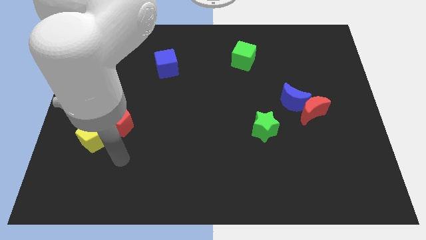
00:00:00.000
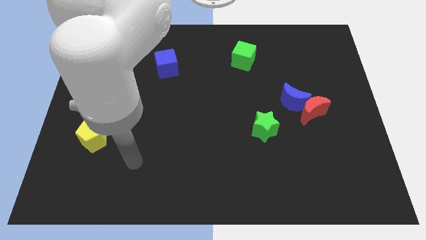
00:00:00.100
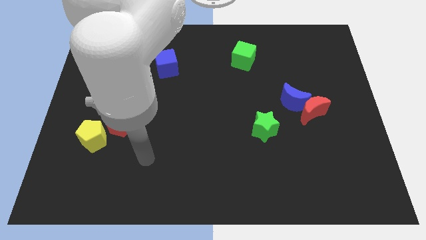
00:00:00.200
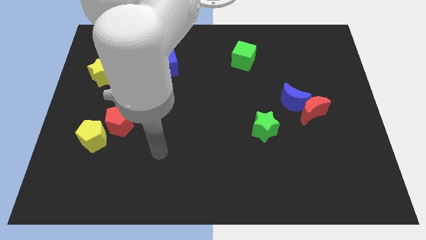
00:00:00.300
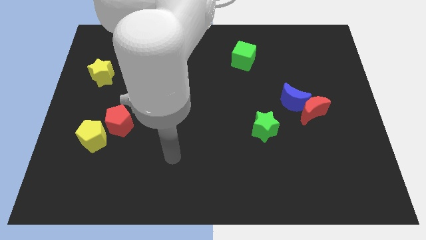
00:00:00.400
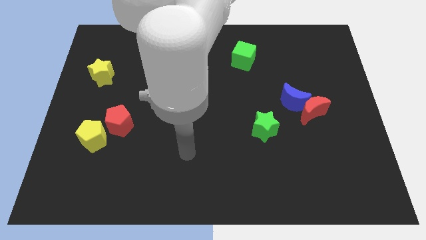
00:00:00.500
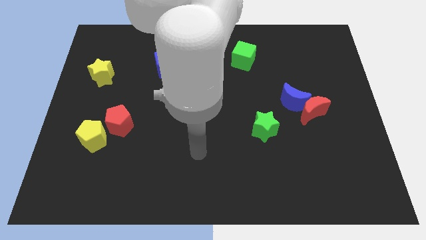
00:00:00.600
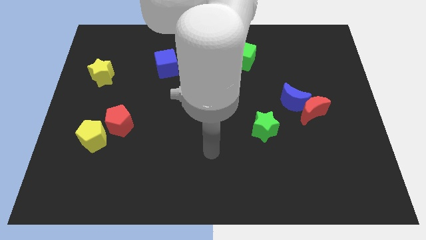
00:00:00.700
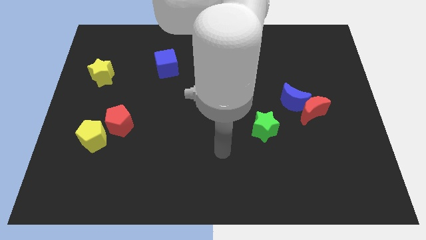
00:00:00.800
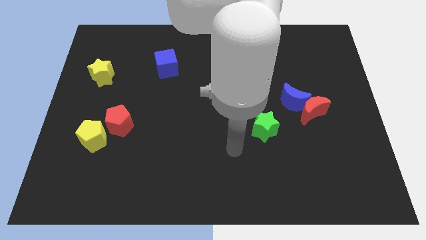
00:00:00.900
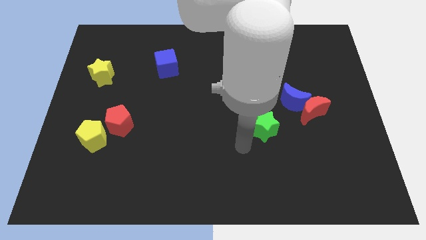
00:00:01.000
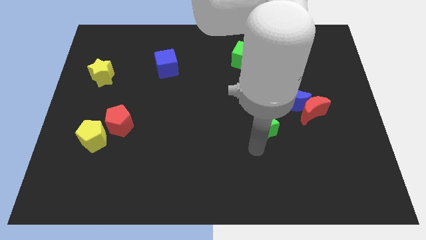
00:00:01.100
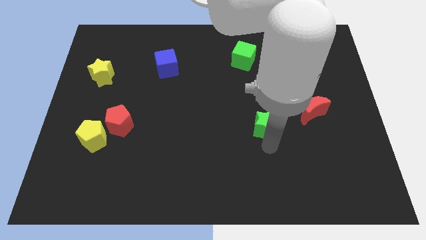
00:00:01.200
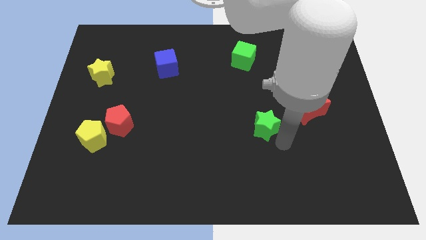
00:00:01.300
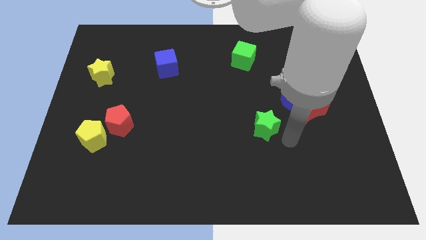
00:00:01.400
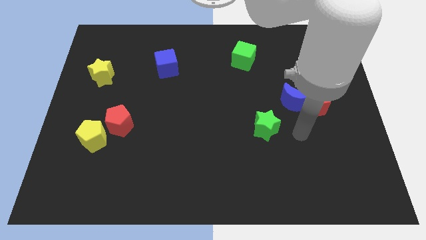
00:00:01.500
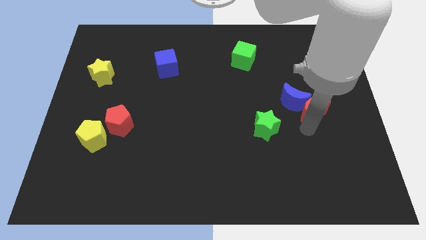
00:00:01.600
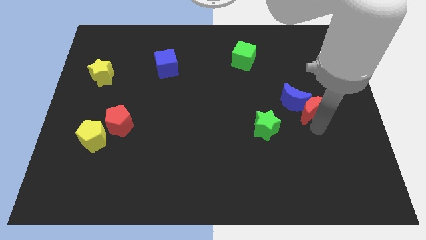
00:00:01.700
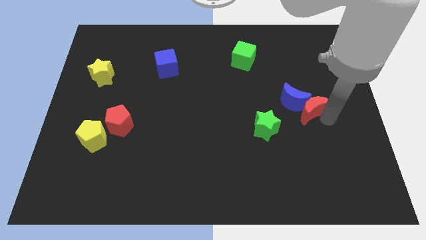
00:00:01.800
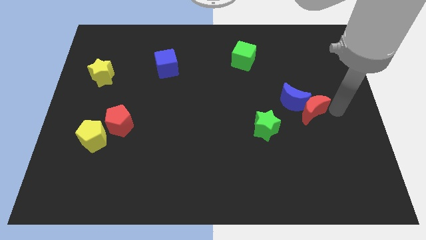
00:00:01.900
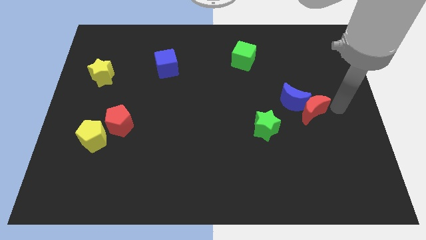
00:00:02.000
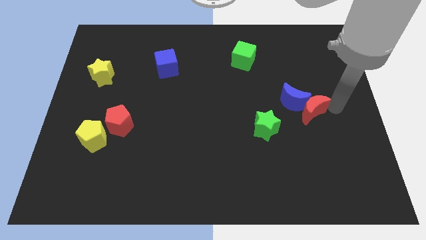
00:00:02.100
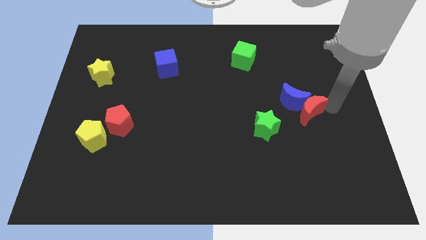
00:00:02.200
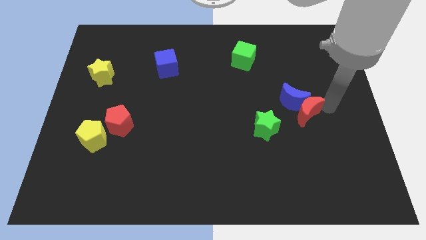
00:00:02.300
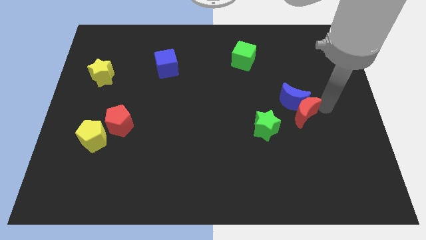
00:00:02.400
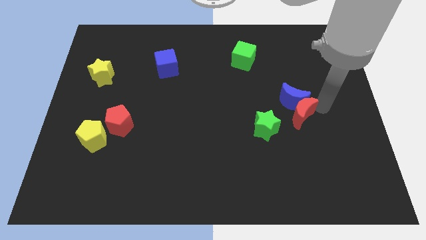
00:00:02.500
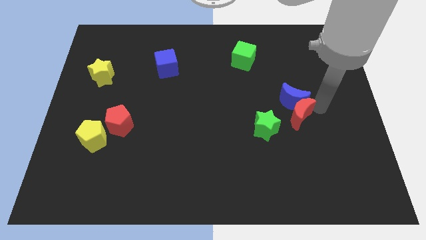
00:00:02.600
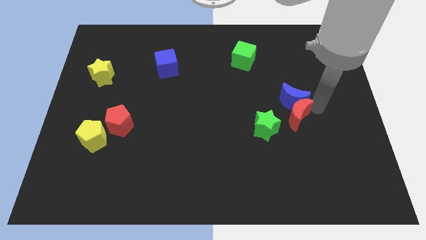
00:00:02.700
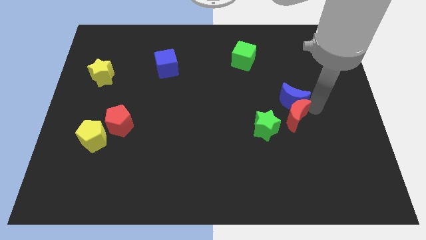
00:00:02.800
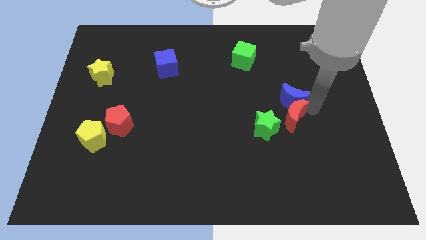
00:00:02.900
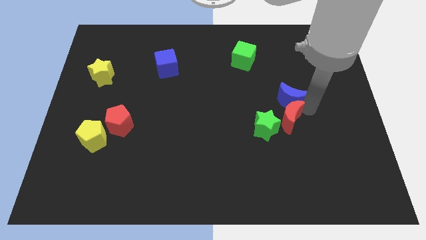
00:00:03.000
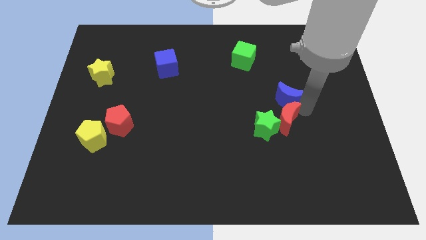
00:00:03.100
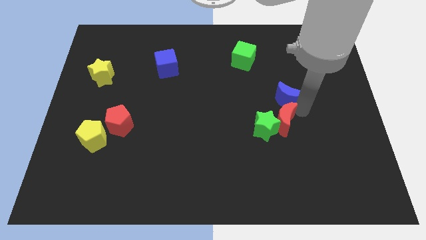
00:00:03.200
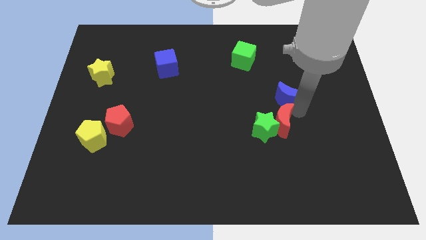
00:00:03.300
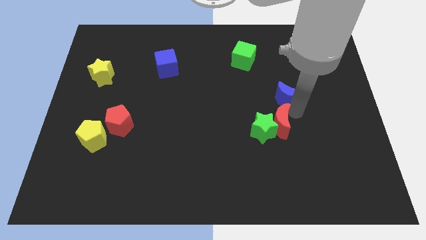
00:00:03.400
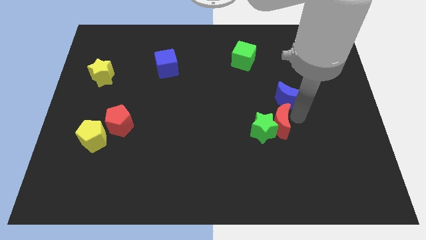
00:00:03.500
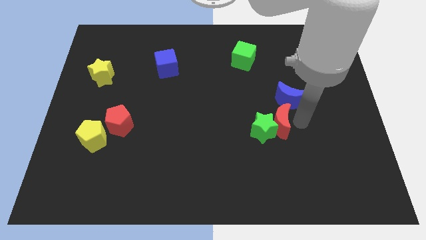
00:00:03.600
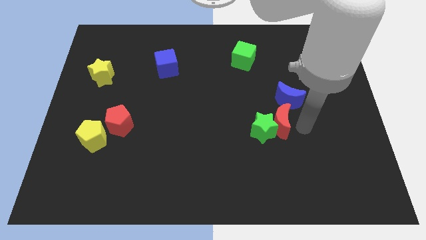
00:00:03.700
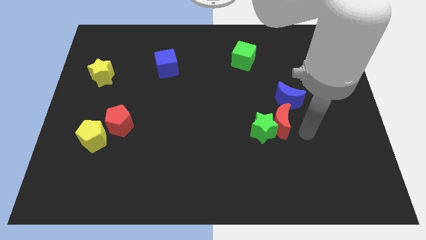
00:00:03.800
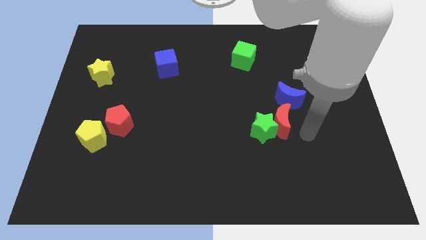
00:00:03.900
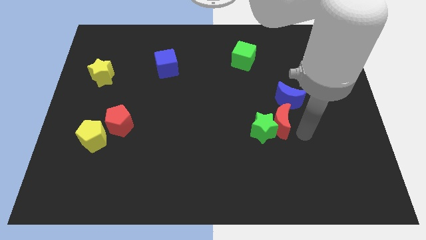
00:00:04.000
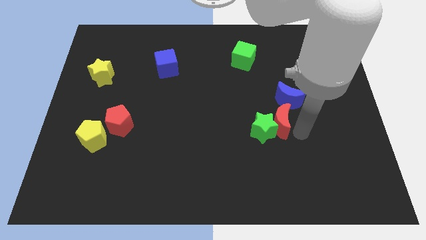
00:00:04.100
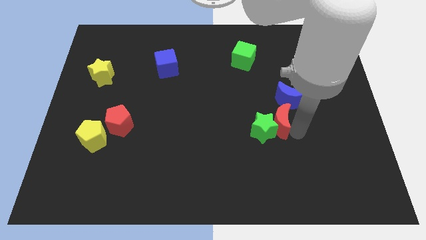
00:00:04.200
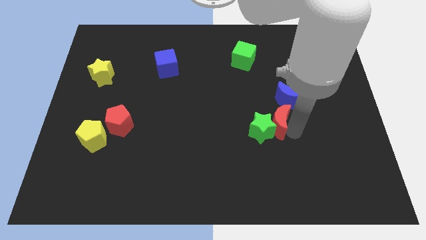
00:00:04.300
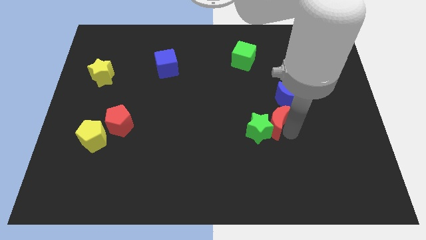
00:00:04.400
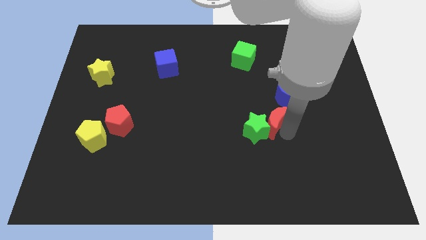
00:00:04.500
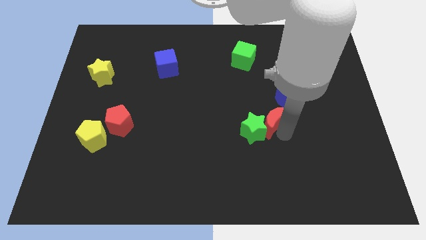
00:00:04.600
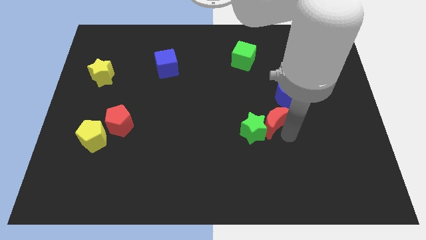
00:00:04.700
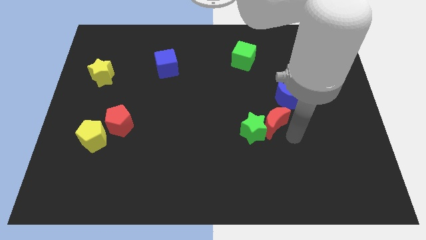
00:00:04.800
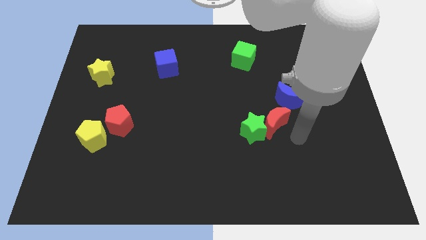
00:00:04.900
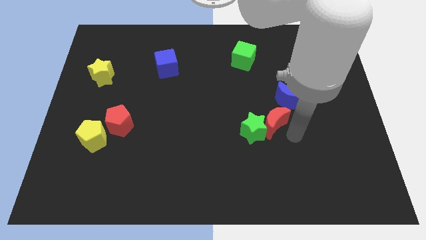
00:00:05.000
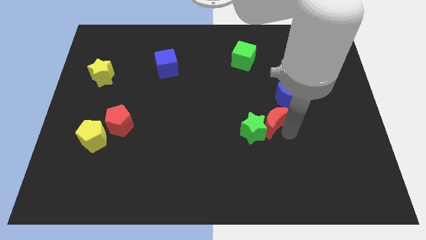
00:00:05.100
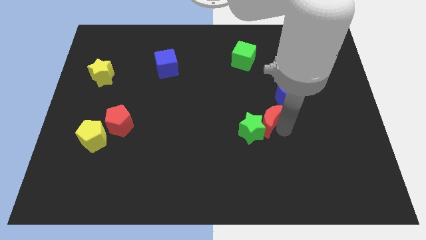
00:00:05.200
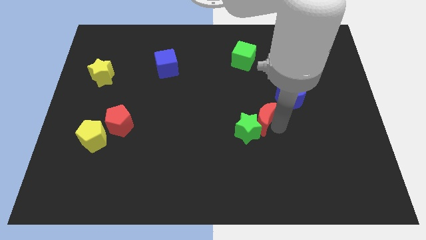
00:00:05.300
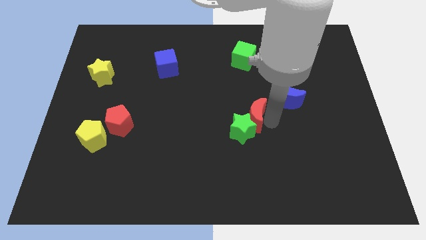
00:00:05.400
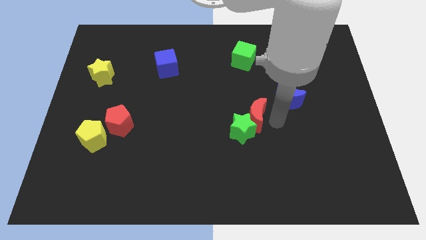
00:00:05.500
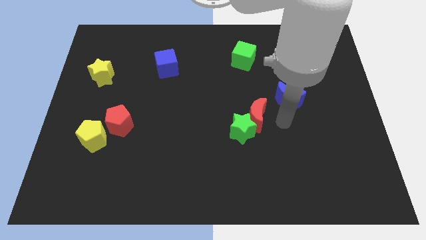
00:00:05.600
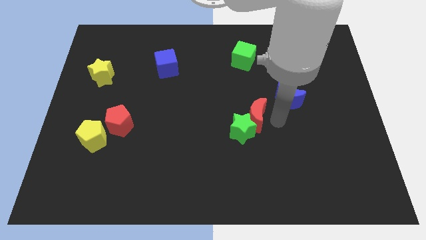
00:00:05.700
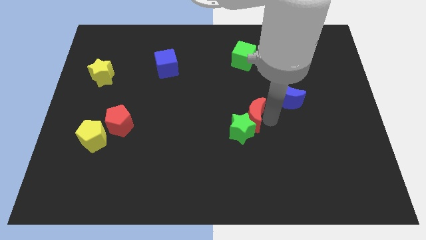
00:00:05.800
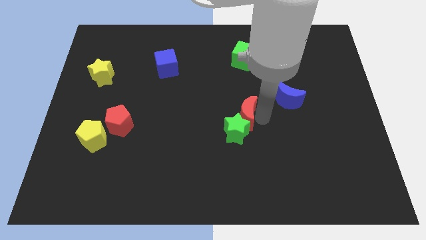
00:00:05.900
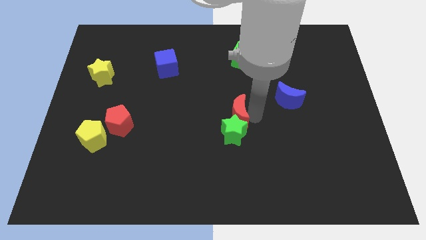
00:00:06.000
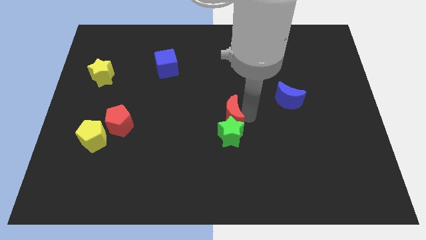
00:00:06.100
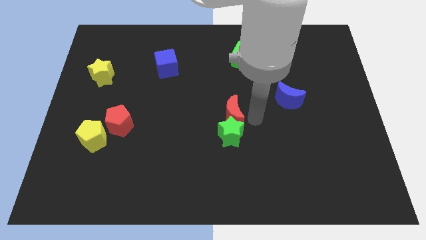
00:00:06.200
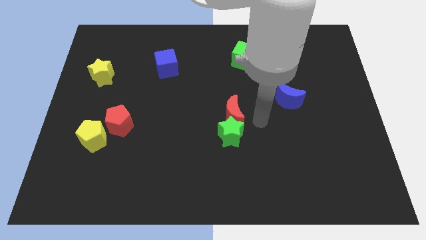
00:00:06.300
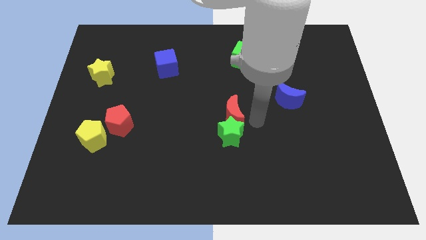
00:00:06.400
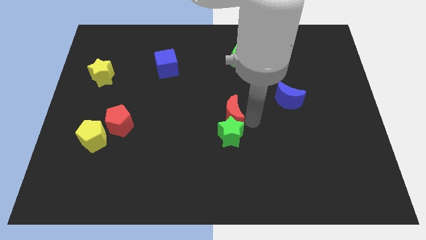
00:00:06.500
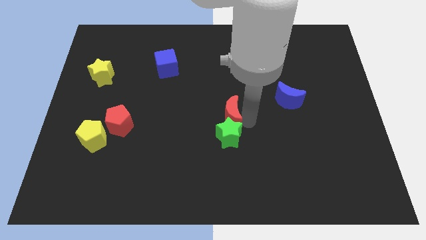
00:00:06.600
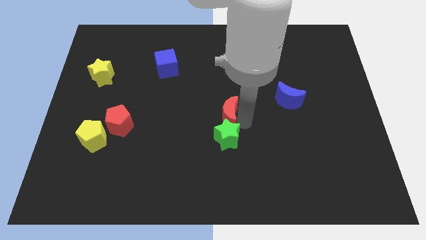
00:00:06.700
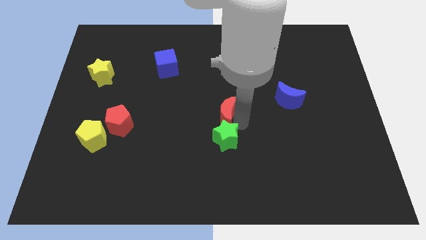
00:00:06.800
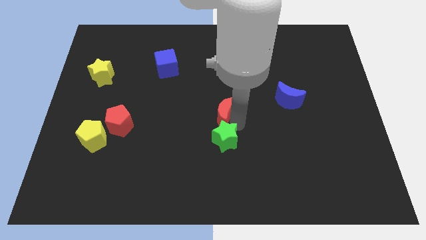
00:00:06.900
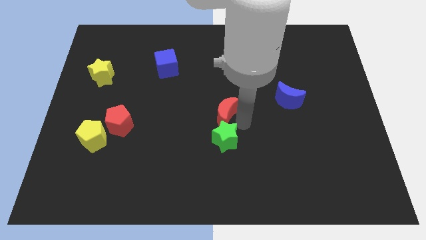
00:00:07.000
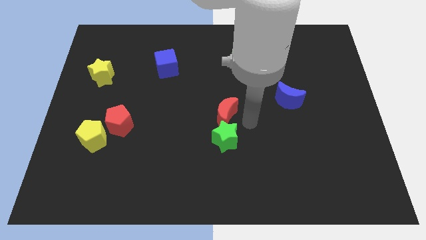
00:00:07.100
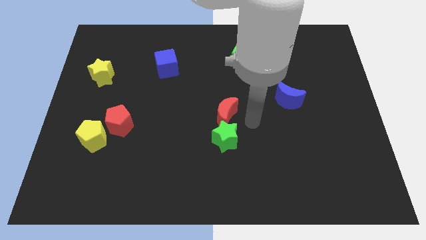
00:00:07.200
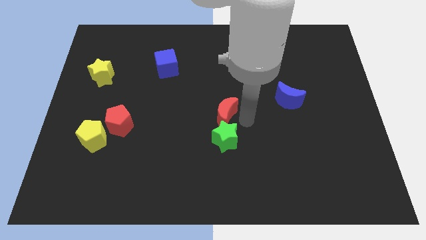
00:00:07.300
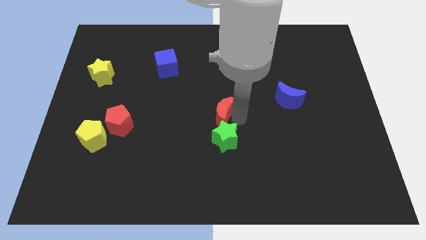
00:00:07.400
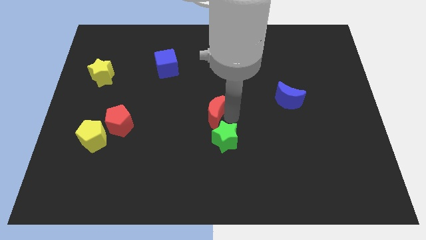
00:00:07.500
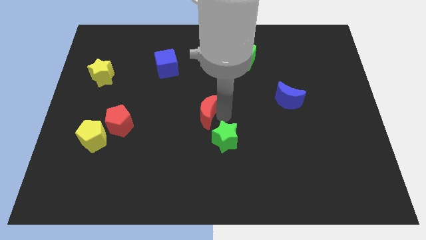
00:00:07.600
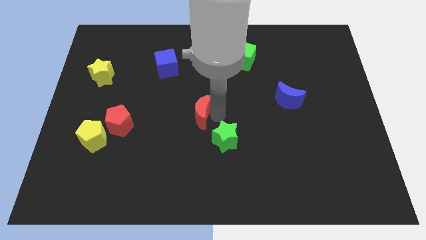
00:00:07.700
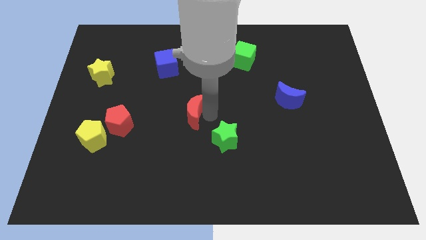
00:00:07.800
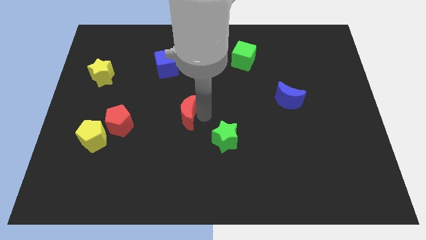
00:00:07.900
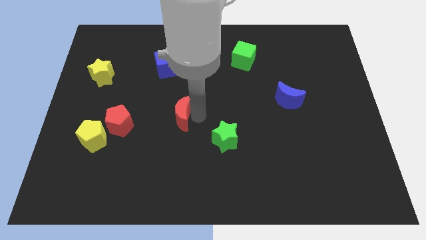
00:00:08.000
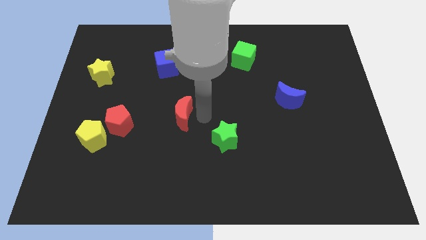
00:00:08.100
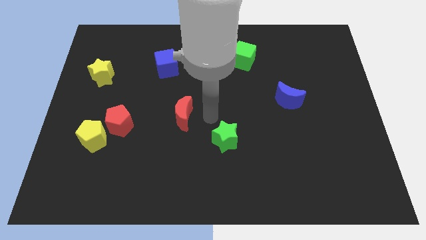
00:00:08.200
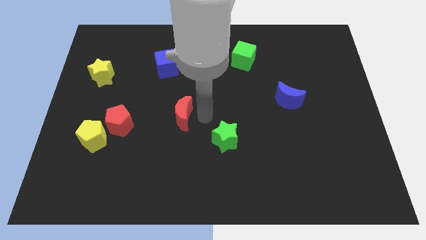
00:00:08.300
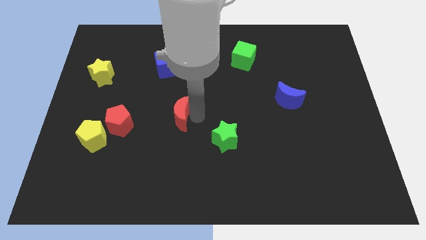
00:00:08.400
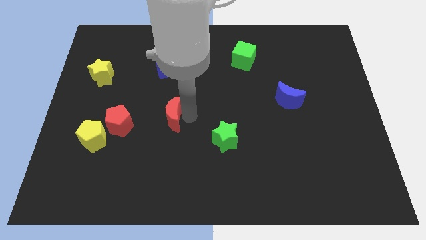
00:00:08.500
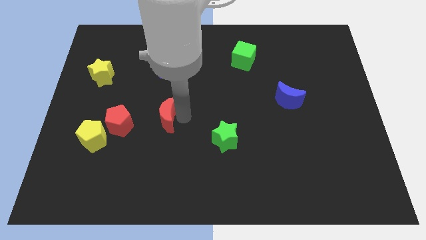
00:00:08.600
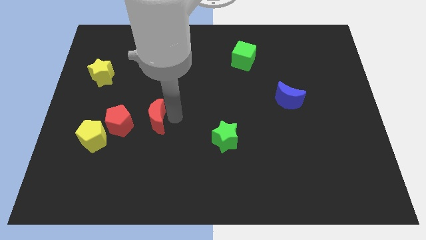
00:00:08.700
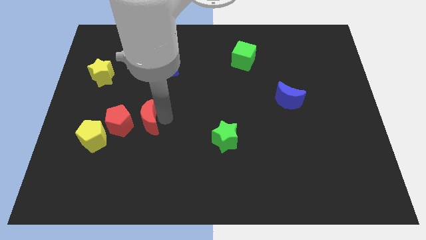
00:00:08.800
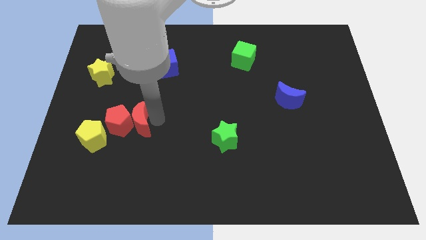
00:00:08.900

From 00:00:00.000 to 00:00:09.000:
put the red moon towards the red pentagon
